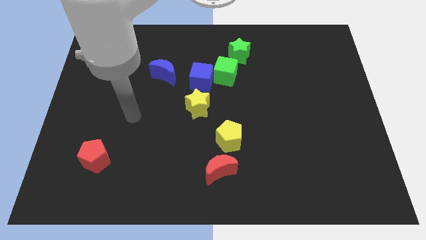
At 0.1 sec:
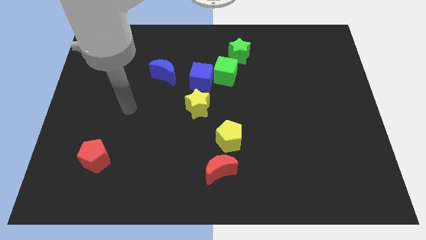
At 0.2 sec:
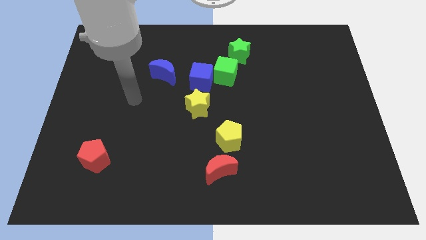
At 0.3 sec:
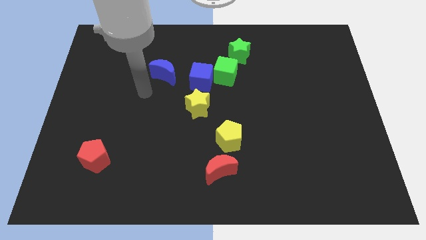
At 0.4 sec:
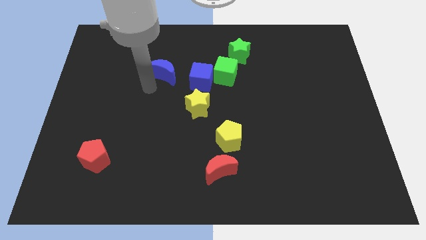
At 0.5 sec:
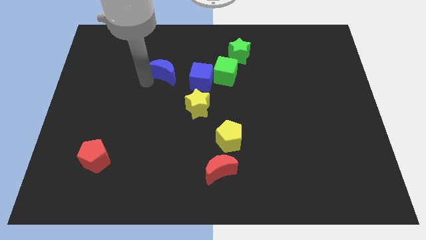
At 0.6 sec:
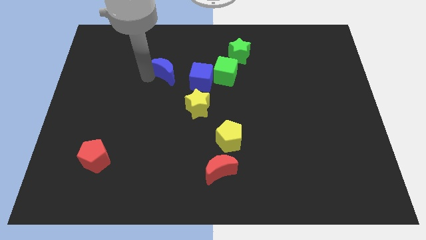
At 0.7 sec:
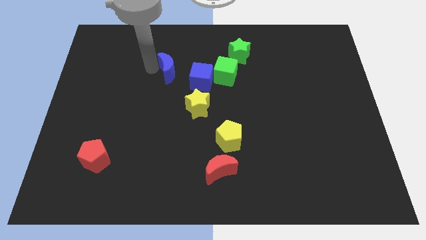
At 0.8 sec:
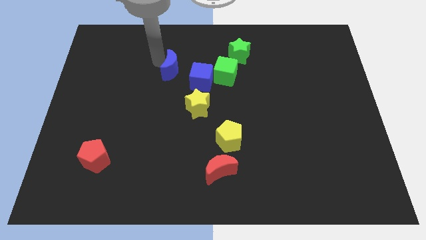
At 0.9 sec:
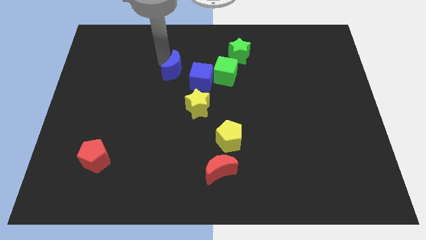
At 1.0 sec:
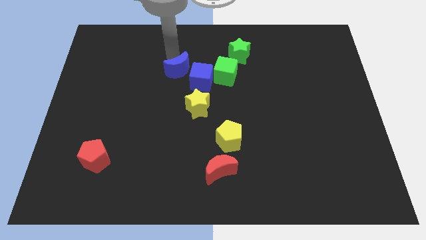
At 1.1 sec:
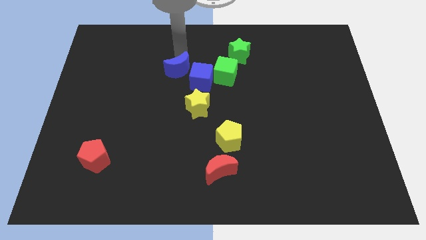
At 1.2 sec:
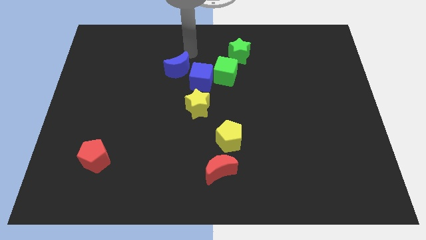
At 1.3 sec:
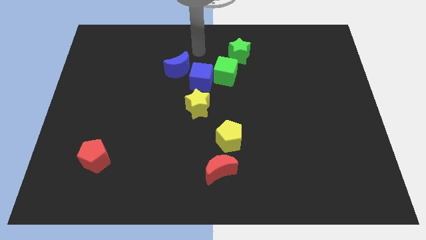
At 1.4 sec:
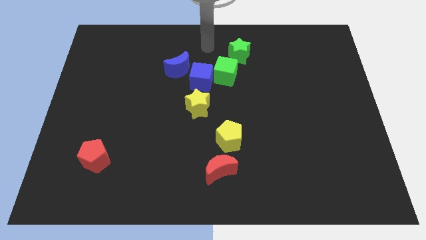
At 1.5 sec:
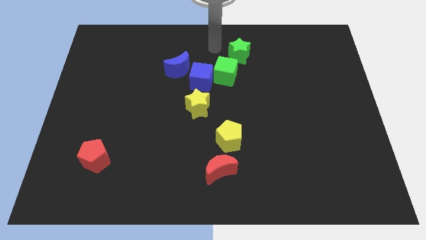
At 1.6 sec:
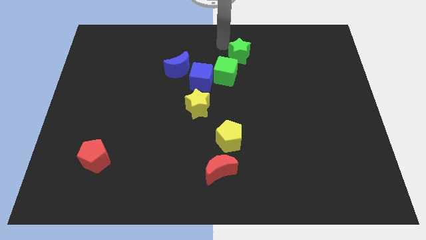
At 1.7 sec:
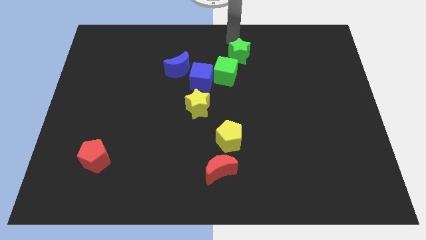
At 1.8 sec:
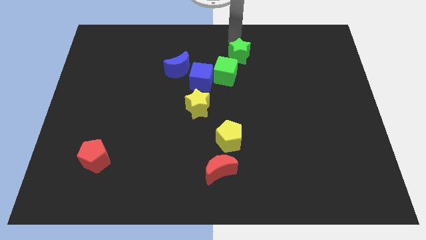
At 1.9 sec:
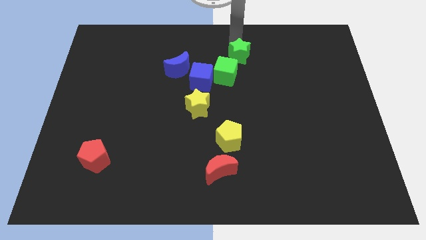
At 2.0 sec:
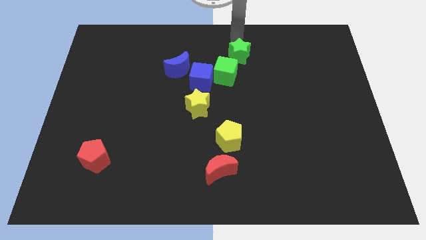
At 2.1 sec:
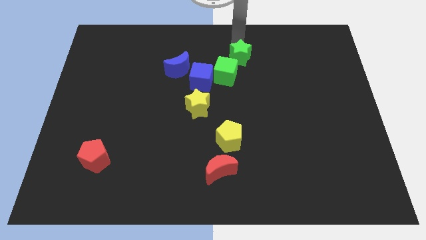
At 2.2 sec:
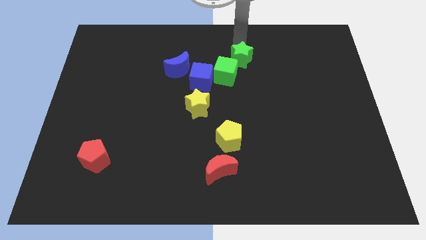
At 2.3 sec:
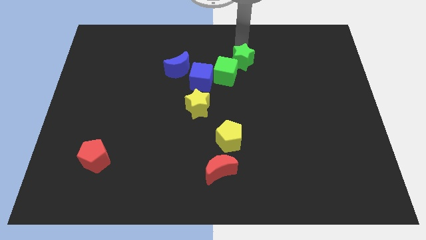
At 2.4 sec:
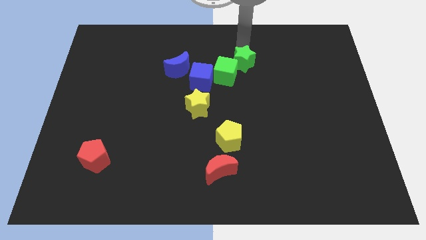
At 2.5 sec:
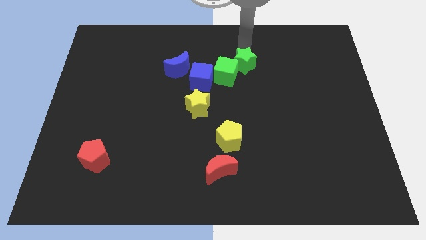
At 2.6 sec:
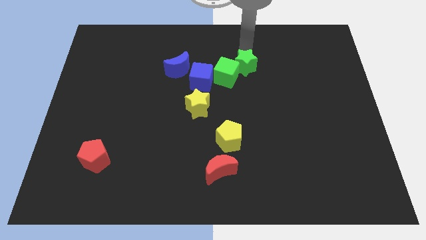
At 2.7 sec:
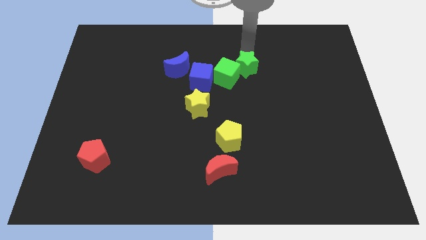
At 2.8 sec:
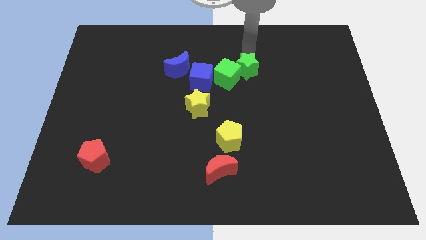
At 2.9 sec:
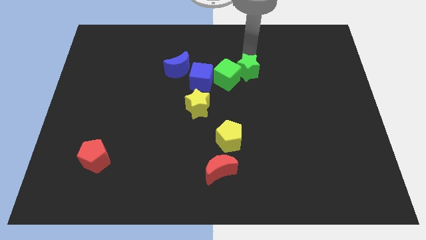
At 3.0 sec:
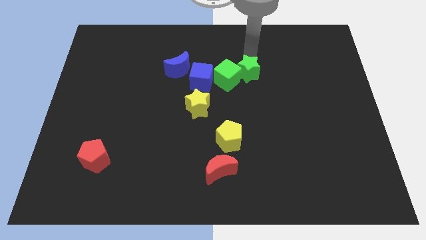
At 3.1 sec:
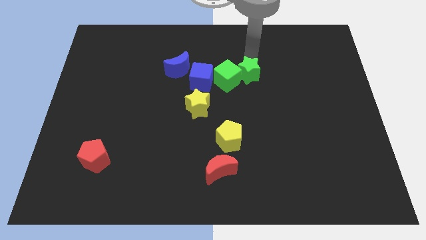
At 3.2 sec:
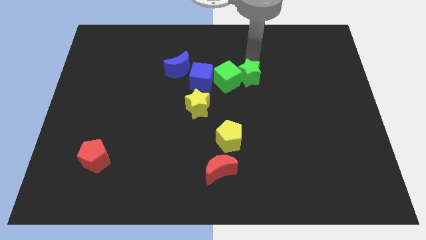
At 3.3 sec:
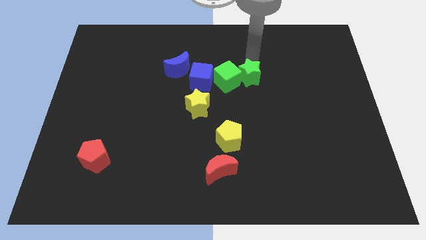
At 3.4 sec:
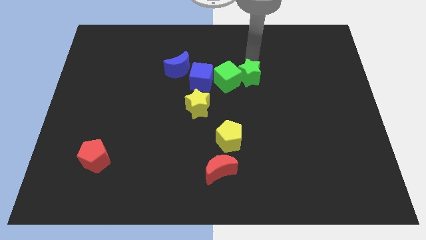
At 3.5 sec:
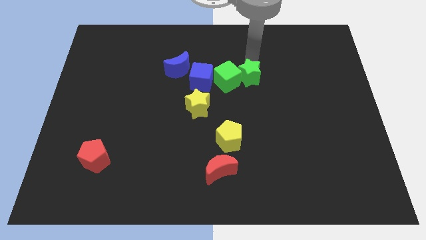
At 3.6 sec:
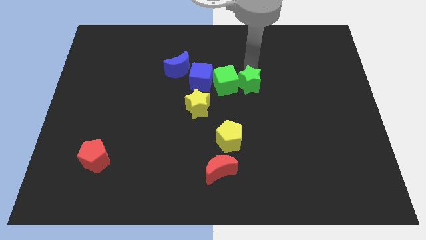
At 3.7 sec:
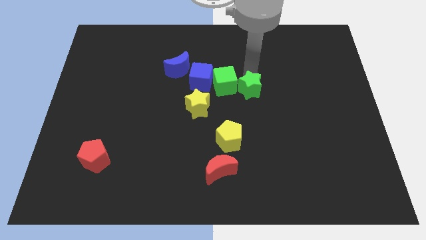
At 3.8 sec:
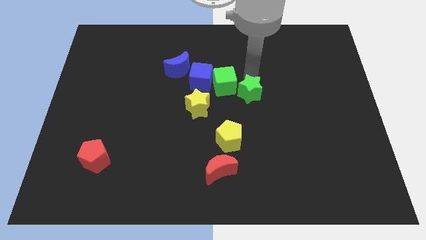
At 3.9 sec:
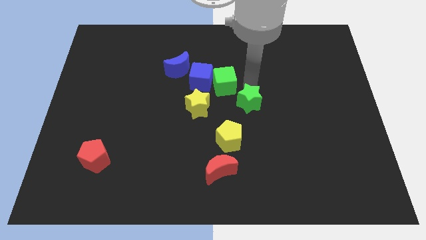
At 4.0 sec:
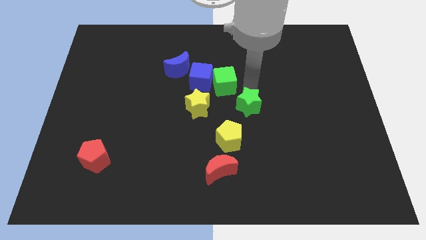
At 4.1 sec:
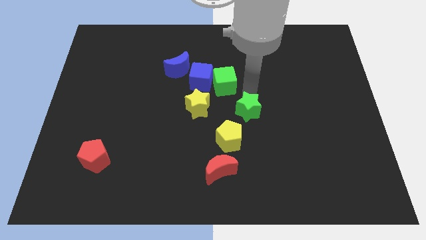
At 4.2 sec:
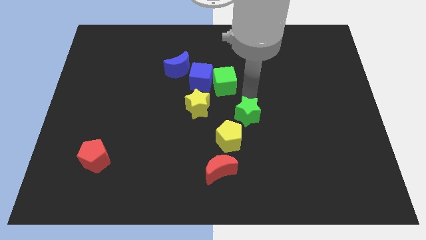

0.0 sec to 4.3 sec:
push the green star down

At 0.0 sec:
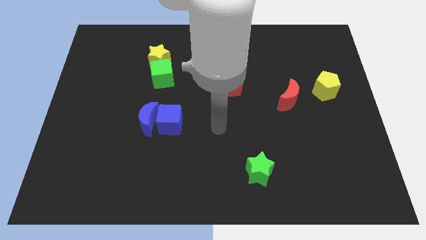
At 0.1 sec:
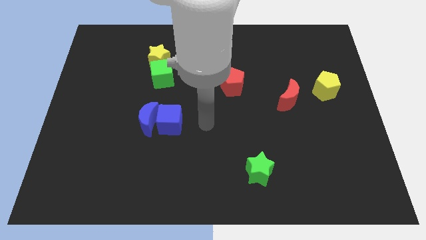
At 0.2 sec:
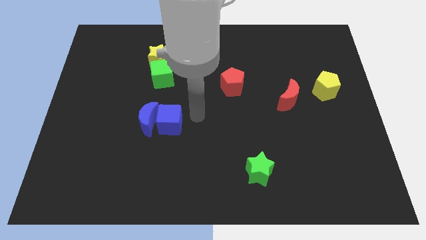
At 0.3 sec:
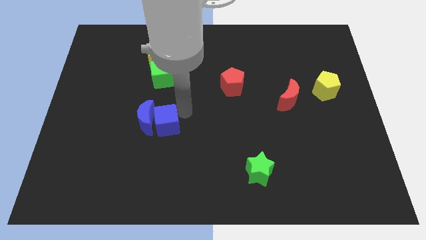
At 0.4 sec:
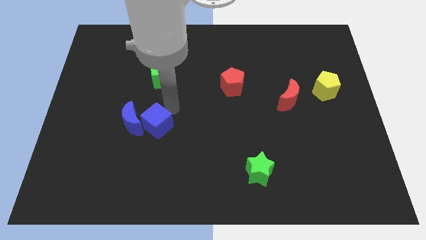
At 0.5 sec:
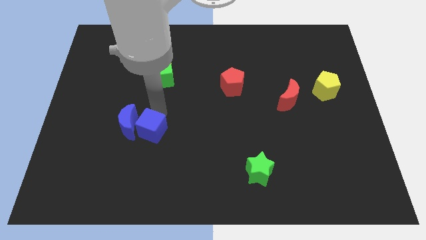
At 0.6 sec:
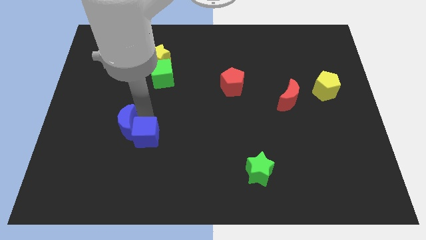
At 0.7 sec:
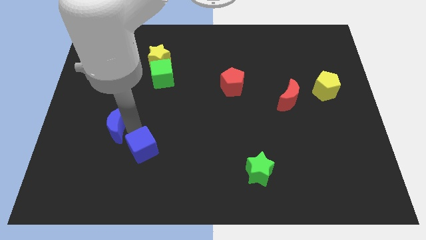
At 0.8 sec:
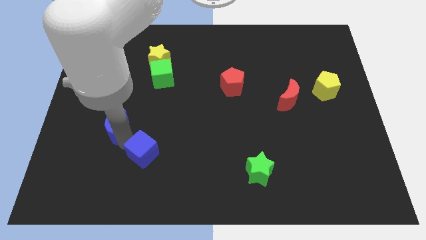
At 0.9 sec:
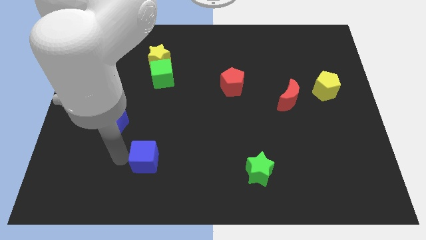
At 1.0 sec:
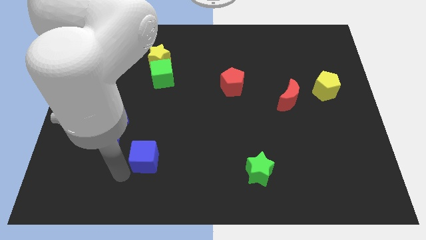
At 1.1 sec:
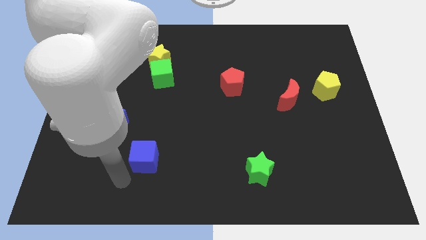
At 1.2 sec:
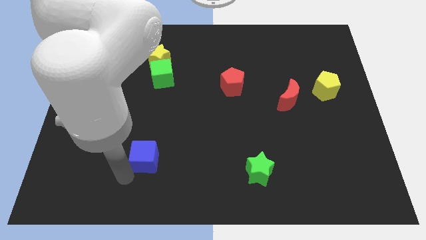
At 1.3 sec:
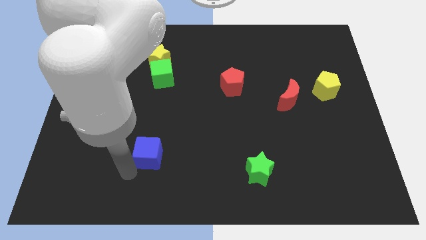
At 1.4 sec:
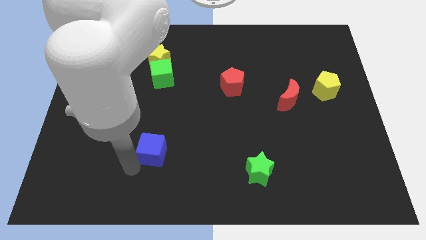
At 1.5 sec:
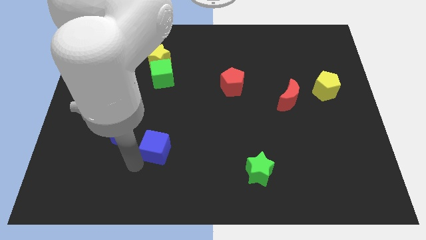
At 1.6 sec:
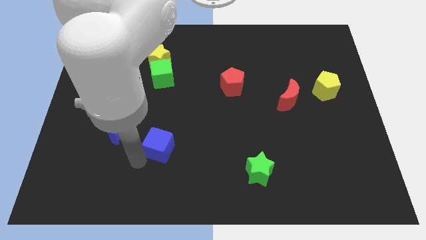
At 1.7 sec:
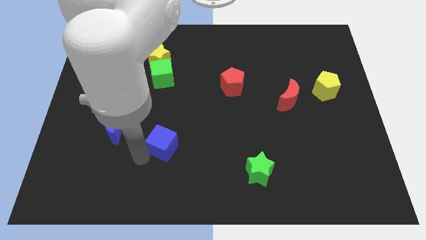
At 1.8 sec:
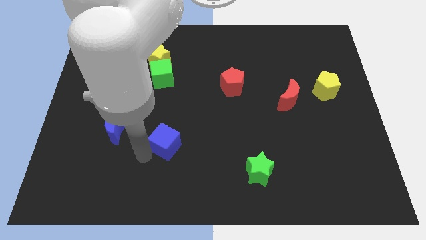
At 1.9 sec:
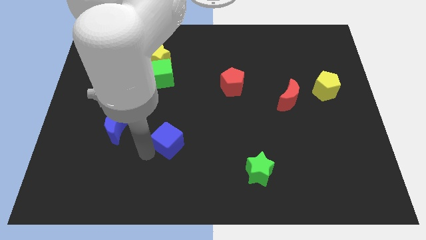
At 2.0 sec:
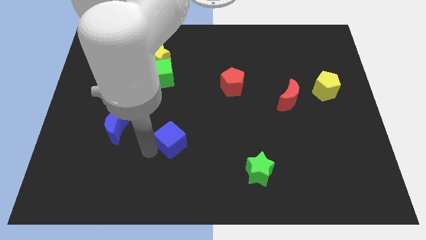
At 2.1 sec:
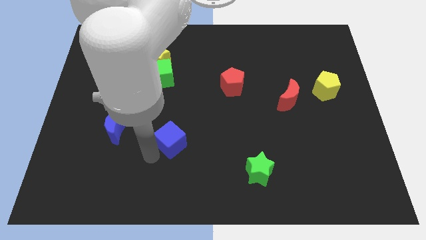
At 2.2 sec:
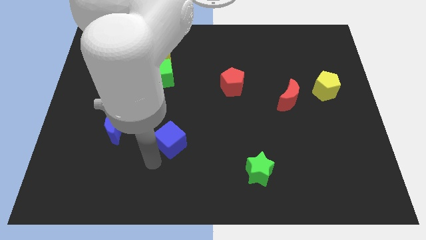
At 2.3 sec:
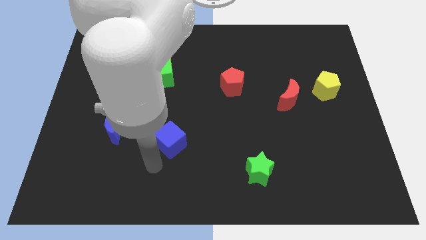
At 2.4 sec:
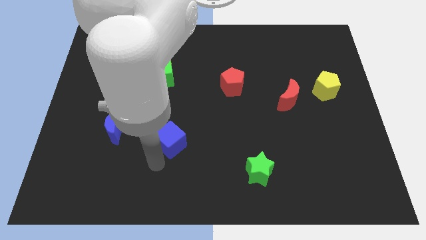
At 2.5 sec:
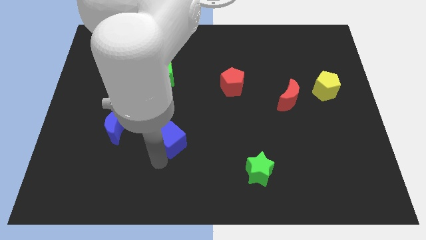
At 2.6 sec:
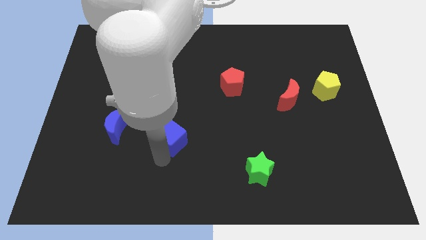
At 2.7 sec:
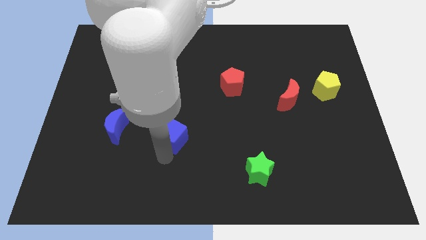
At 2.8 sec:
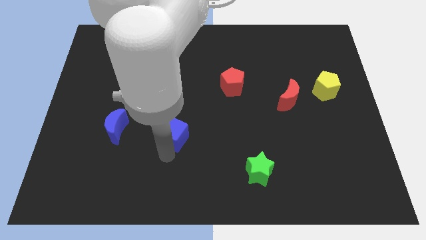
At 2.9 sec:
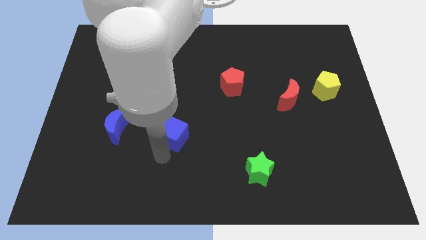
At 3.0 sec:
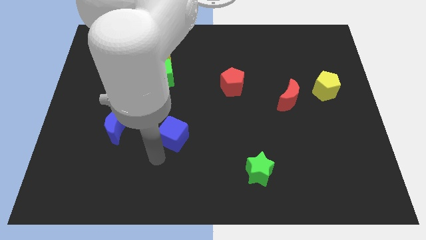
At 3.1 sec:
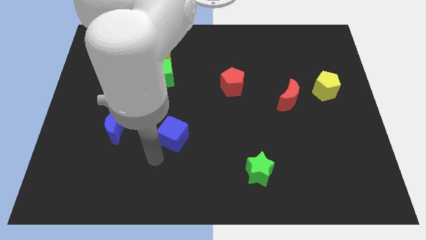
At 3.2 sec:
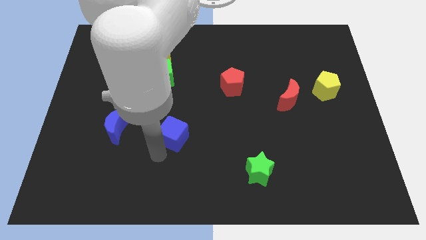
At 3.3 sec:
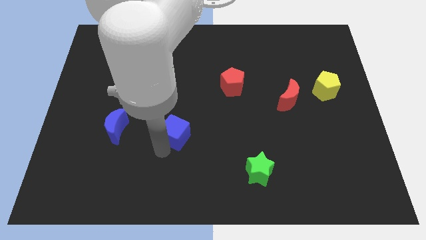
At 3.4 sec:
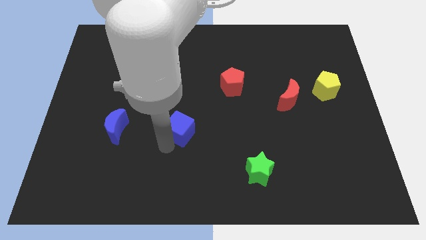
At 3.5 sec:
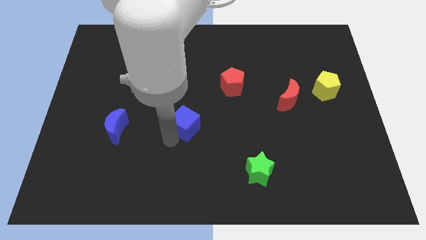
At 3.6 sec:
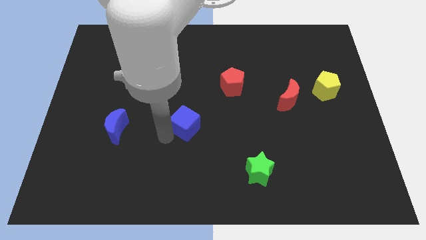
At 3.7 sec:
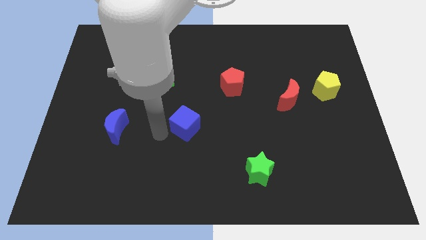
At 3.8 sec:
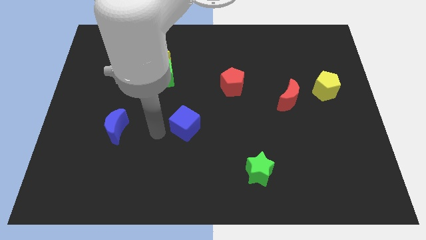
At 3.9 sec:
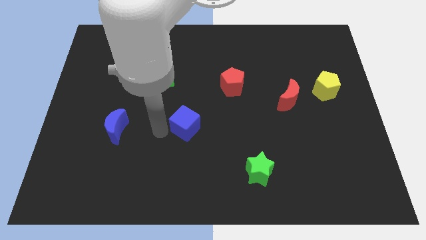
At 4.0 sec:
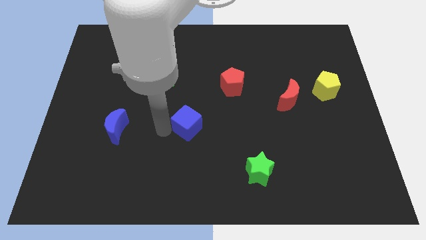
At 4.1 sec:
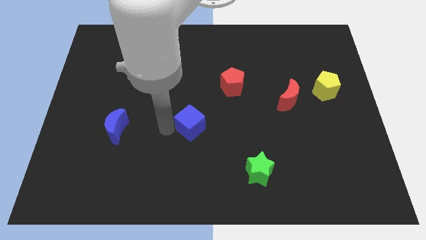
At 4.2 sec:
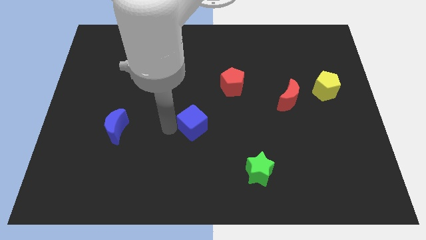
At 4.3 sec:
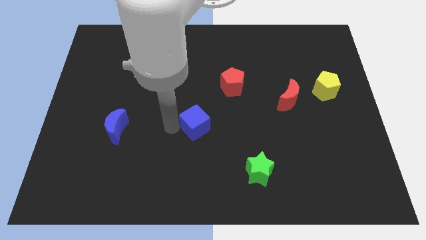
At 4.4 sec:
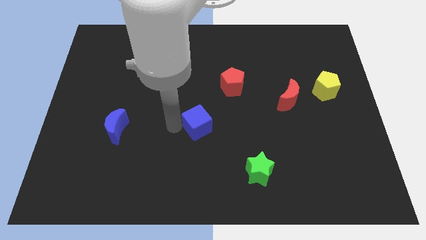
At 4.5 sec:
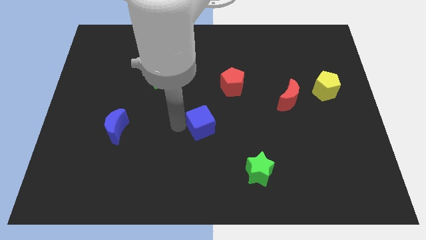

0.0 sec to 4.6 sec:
slightly slide the blue cube right
